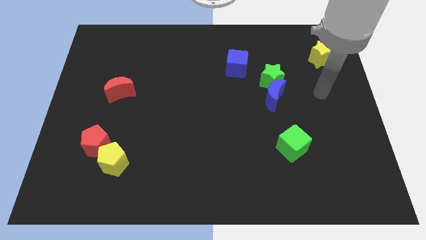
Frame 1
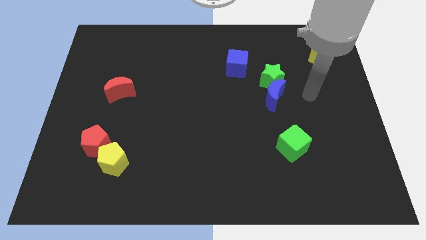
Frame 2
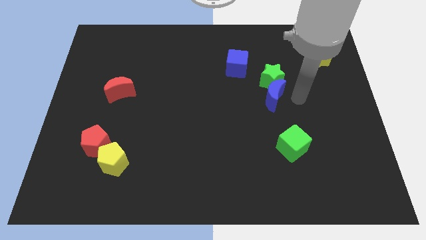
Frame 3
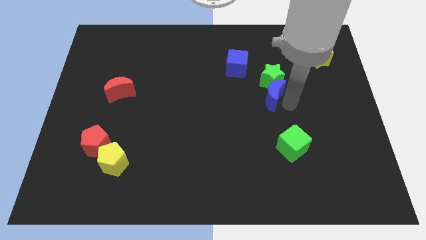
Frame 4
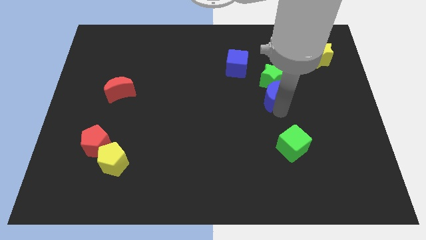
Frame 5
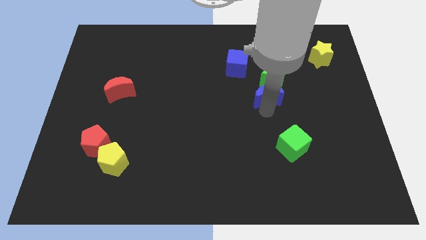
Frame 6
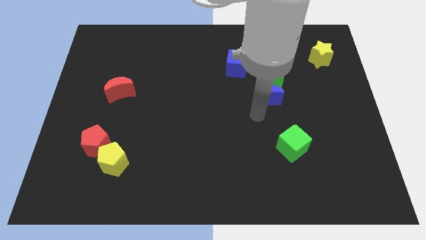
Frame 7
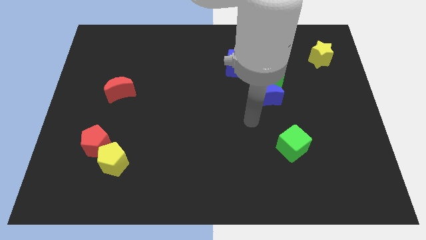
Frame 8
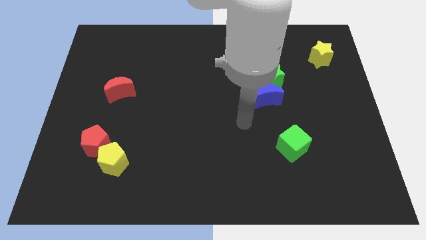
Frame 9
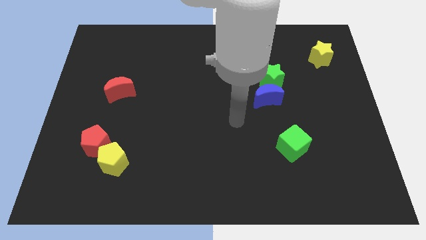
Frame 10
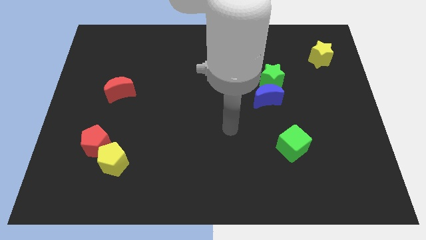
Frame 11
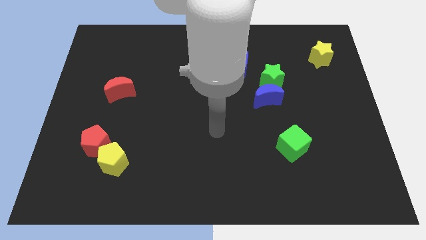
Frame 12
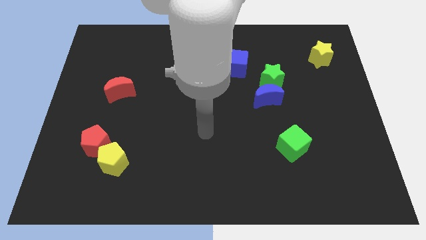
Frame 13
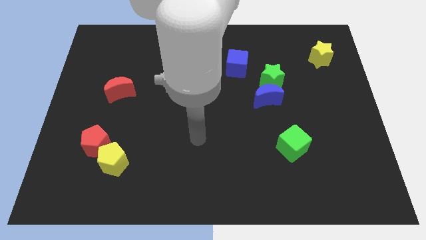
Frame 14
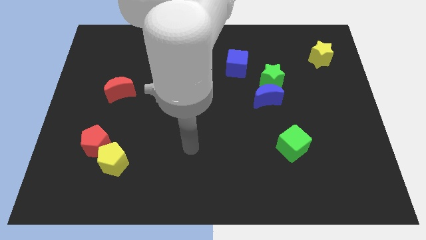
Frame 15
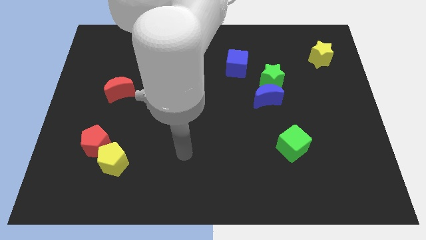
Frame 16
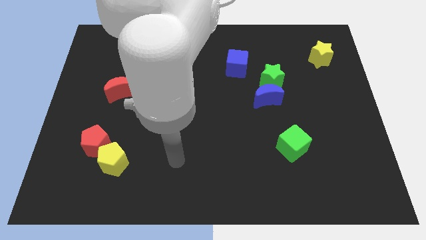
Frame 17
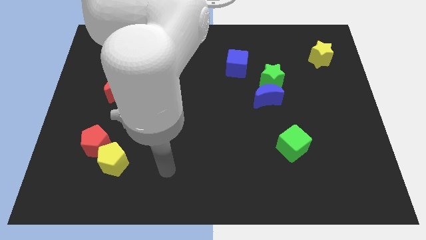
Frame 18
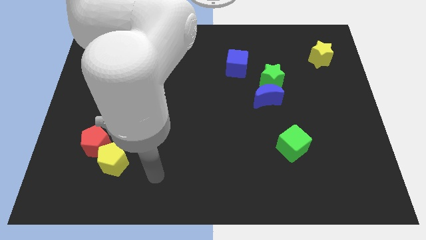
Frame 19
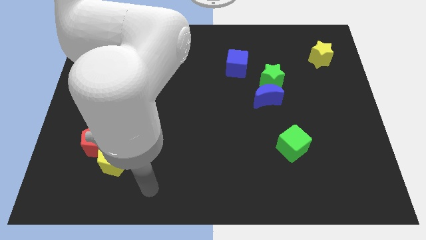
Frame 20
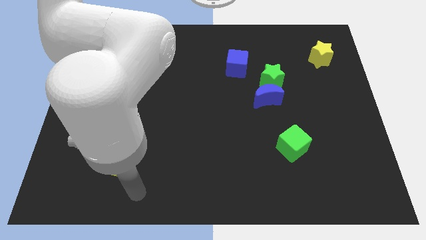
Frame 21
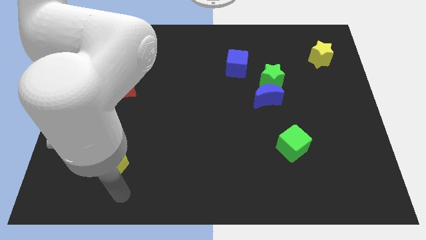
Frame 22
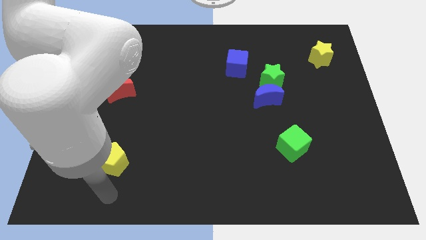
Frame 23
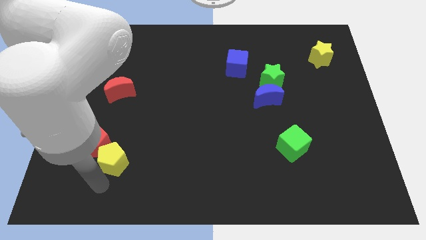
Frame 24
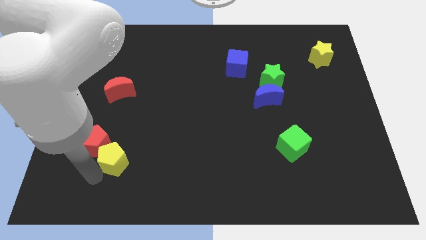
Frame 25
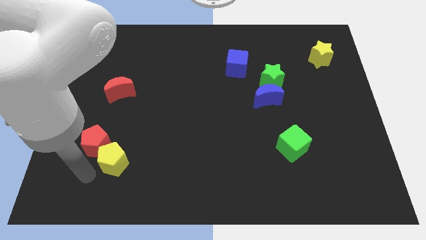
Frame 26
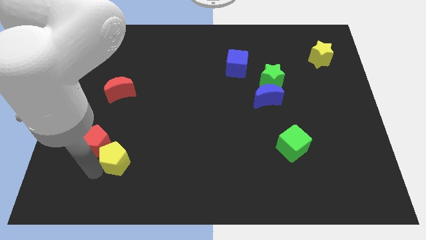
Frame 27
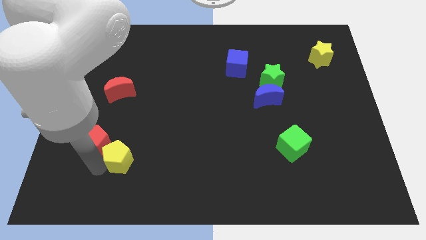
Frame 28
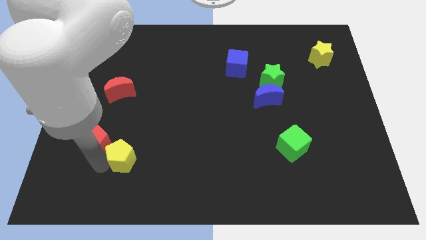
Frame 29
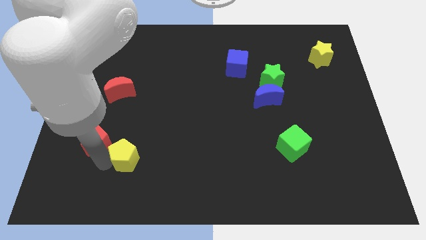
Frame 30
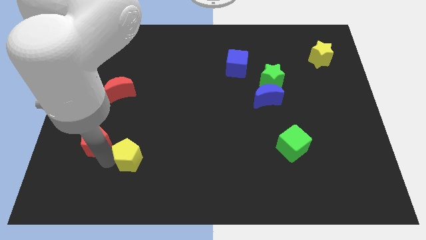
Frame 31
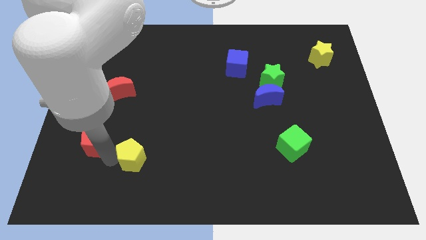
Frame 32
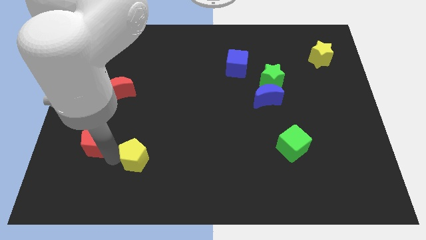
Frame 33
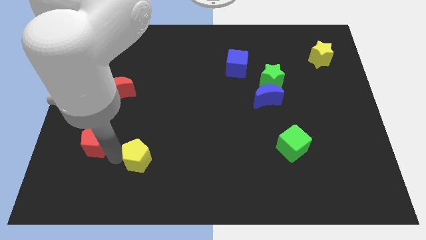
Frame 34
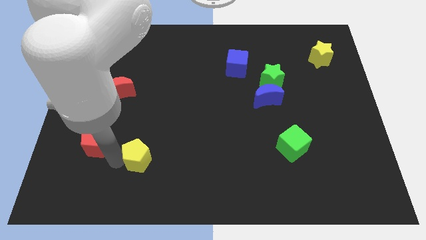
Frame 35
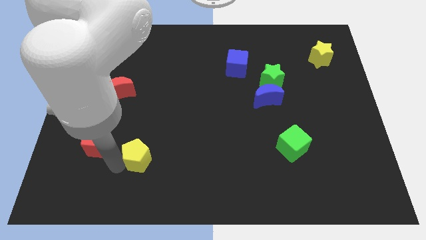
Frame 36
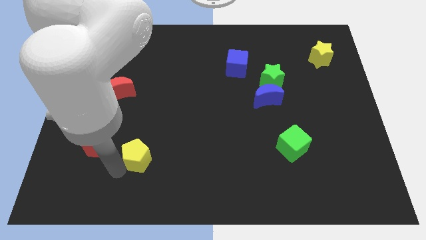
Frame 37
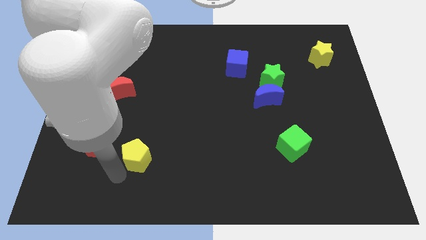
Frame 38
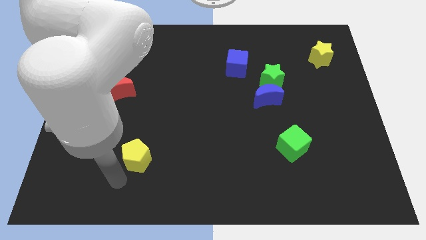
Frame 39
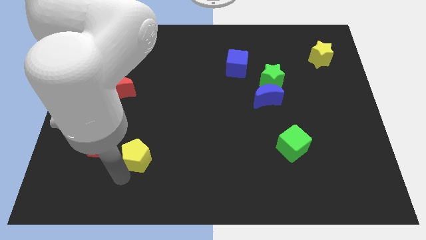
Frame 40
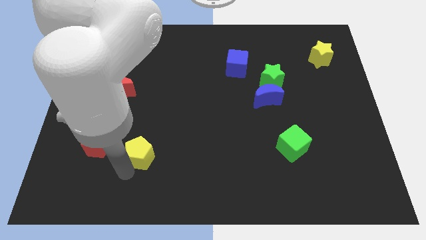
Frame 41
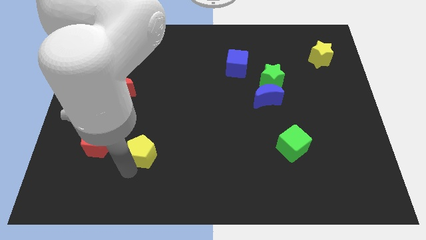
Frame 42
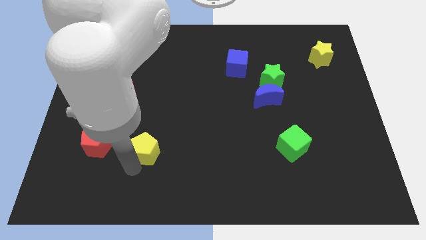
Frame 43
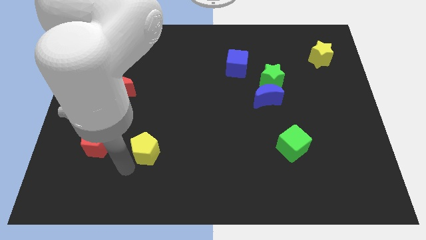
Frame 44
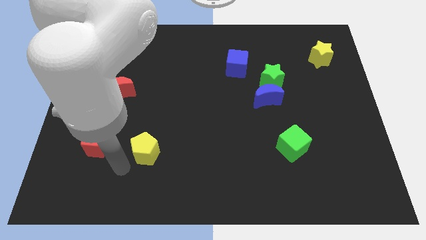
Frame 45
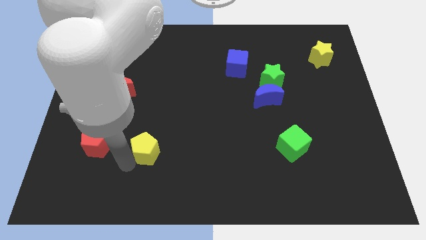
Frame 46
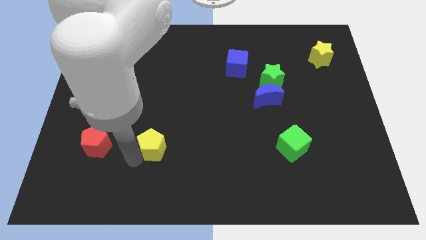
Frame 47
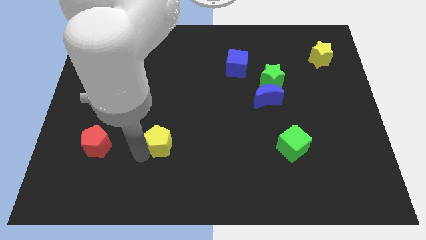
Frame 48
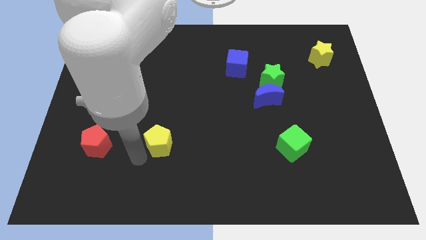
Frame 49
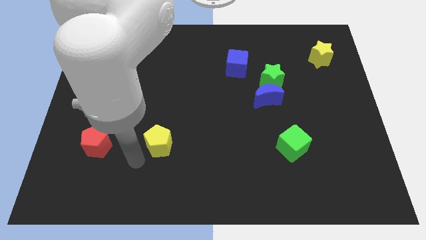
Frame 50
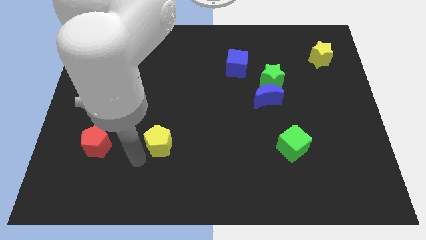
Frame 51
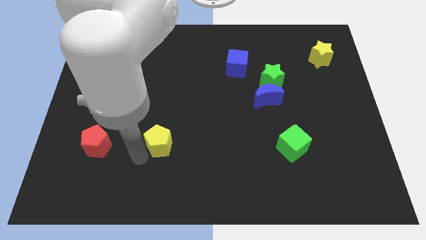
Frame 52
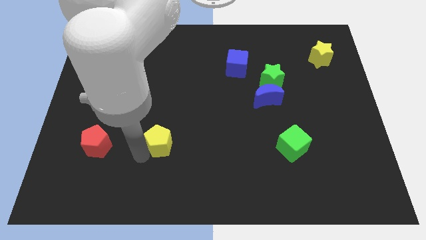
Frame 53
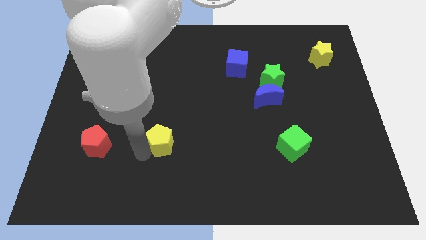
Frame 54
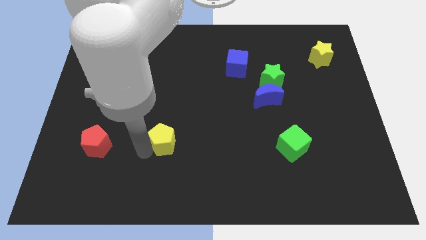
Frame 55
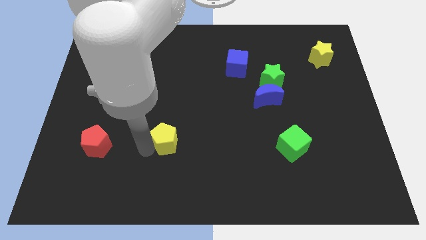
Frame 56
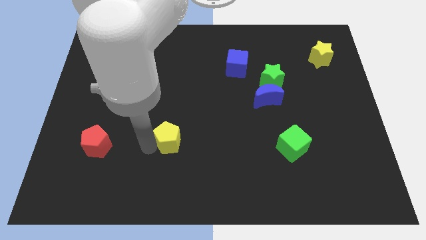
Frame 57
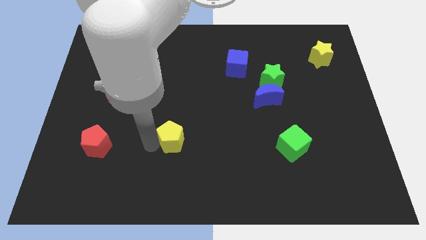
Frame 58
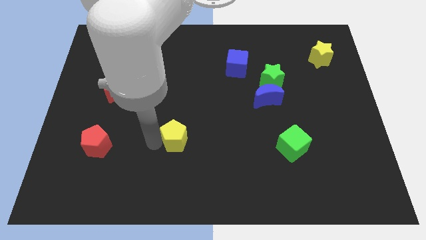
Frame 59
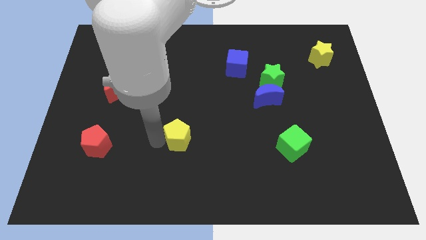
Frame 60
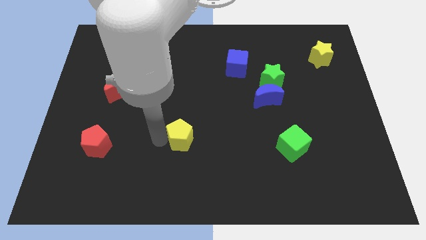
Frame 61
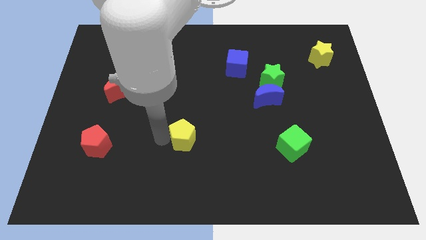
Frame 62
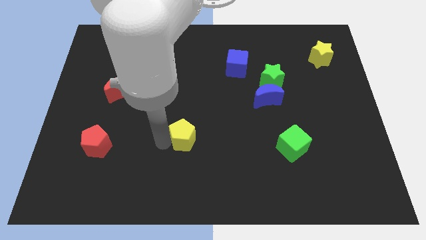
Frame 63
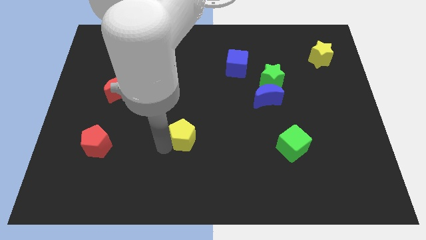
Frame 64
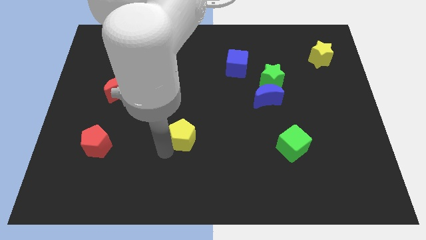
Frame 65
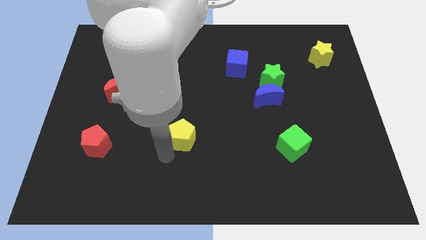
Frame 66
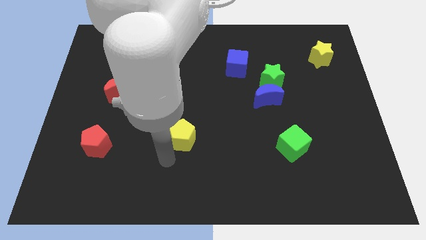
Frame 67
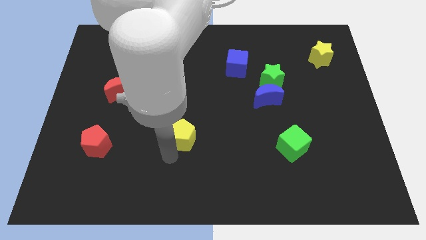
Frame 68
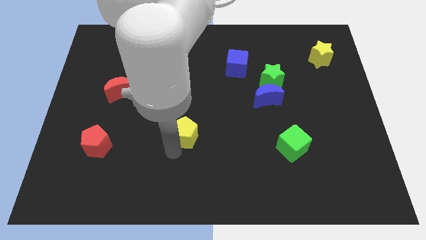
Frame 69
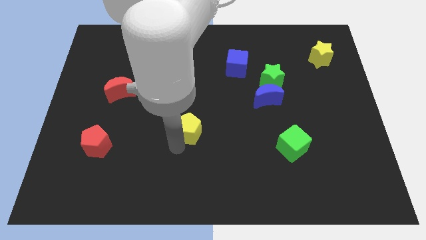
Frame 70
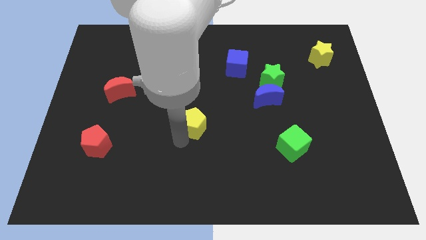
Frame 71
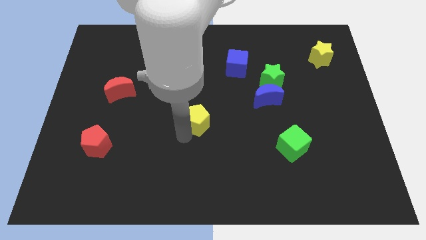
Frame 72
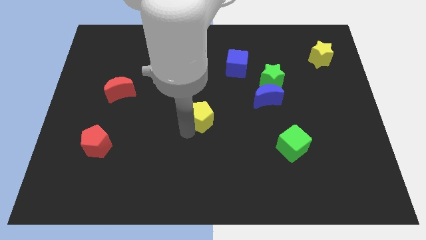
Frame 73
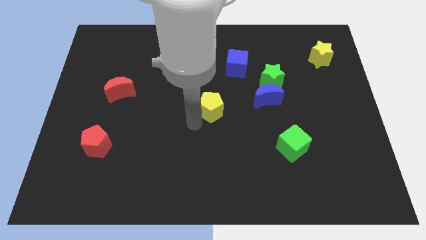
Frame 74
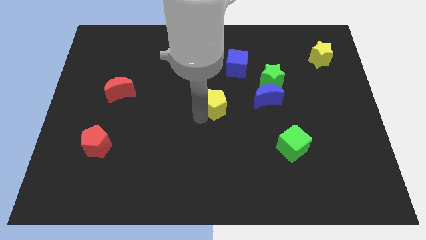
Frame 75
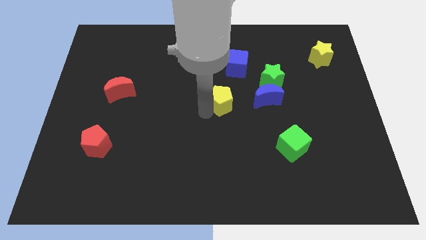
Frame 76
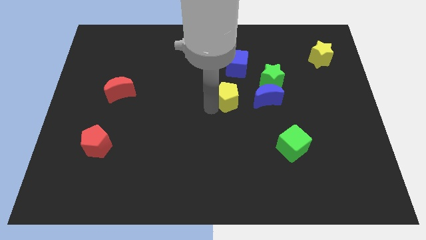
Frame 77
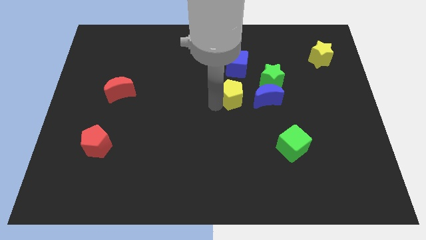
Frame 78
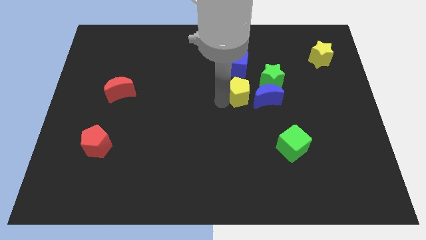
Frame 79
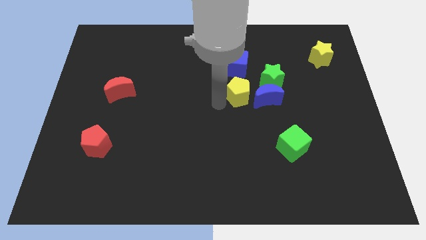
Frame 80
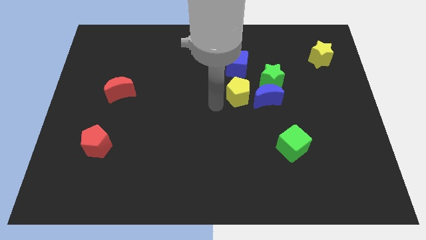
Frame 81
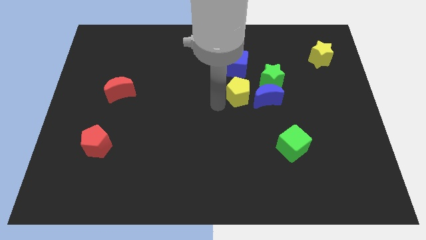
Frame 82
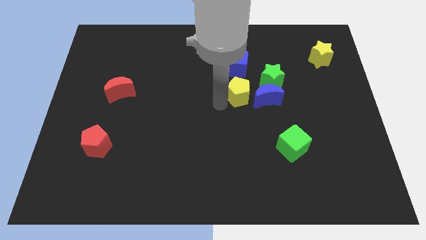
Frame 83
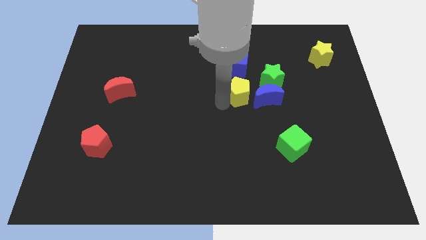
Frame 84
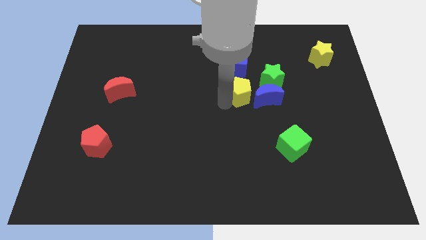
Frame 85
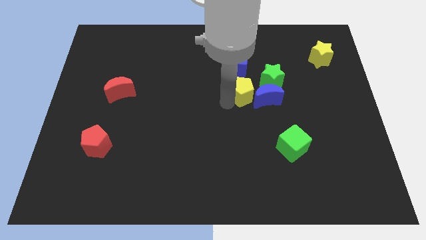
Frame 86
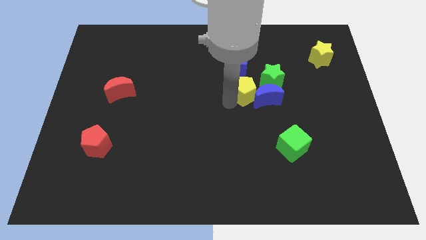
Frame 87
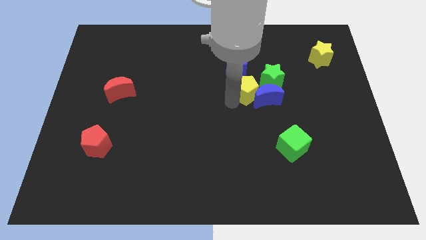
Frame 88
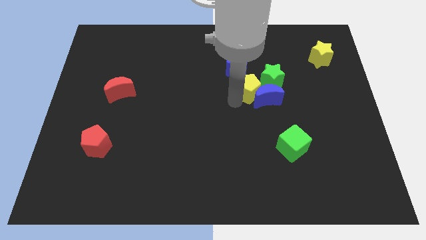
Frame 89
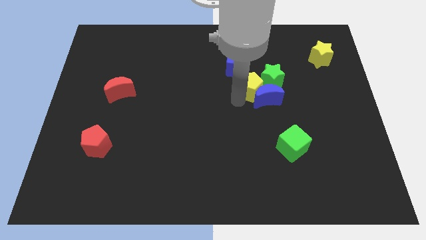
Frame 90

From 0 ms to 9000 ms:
push the yellow pentagon towards the green star
